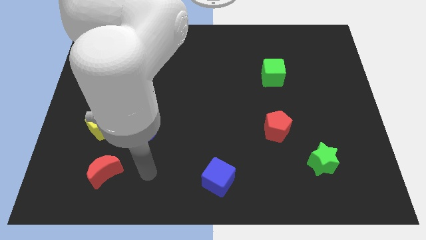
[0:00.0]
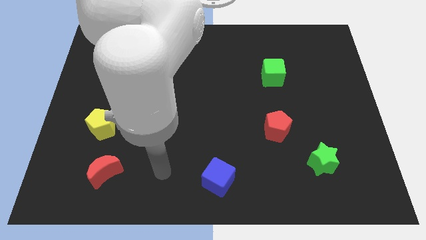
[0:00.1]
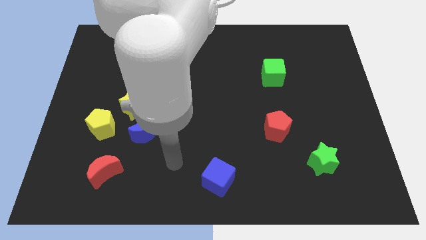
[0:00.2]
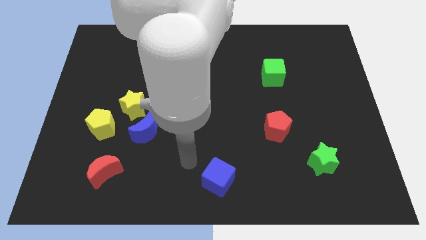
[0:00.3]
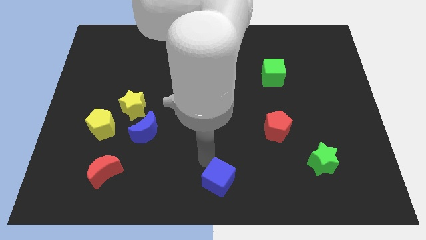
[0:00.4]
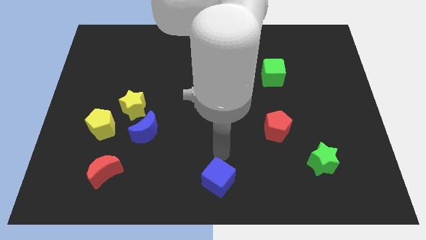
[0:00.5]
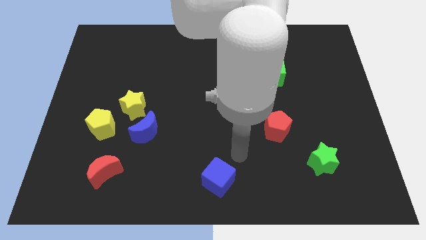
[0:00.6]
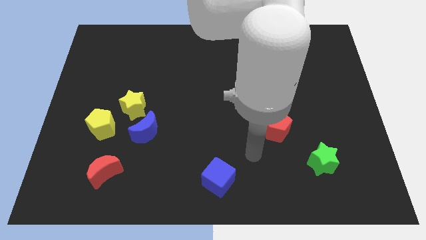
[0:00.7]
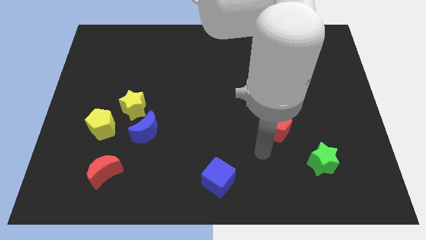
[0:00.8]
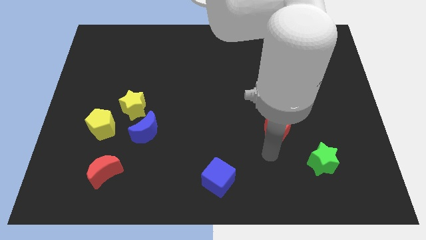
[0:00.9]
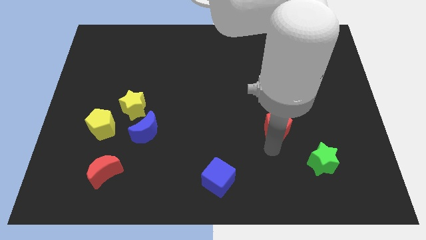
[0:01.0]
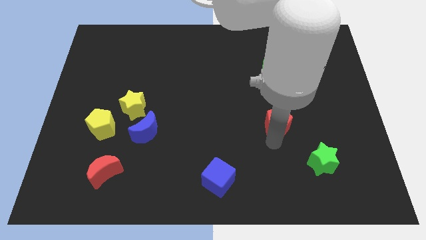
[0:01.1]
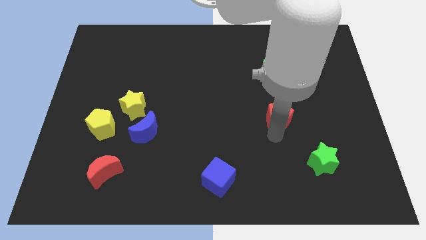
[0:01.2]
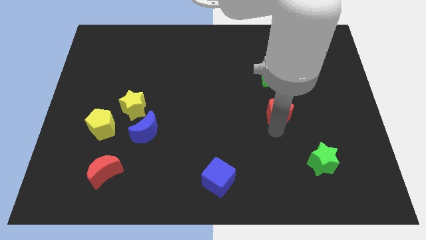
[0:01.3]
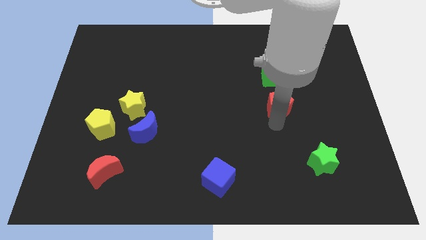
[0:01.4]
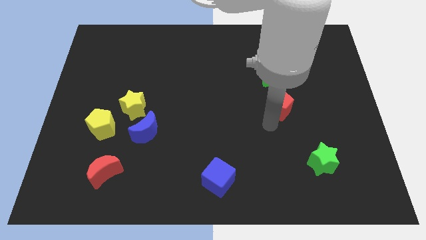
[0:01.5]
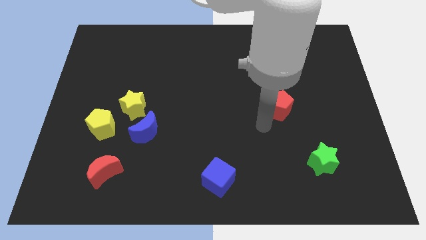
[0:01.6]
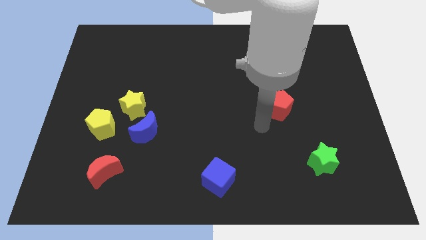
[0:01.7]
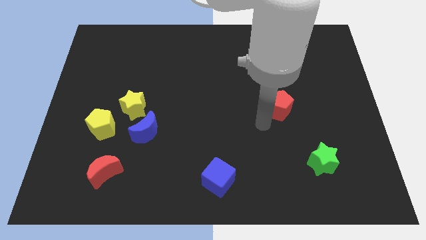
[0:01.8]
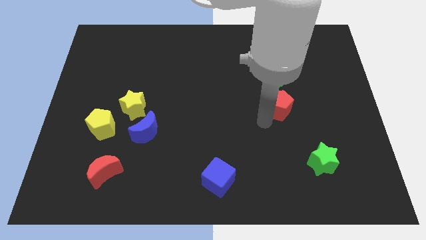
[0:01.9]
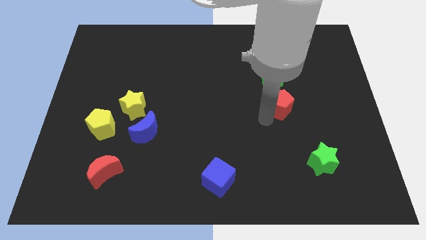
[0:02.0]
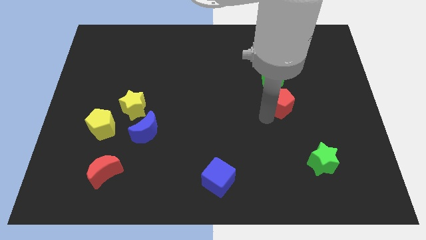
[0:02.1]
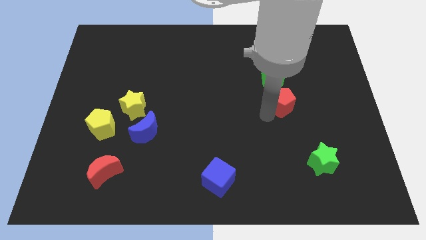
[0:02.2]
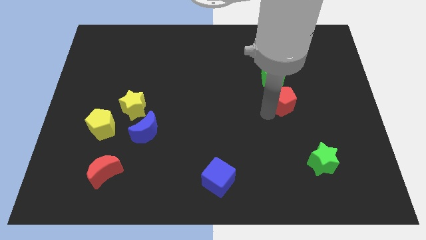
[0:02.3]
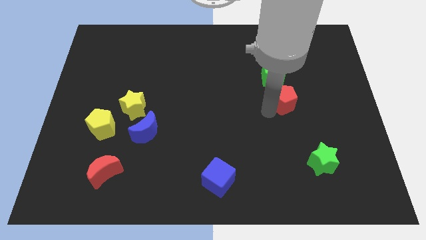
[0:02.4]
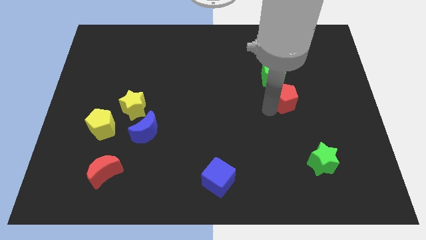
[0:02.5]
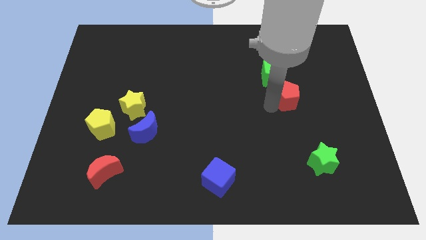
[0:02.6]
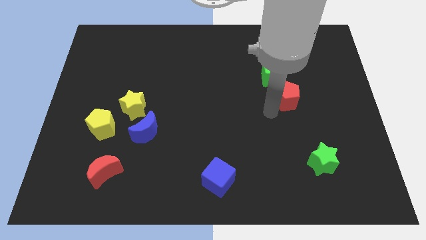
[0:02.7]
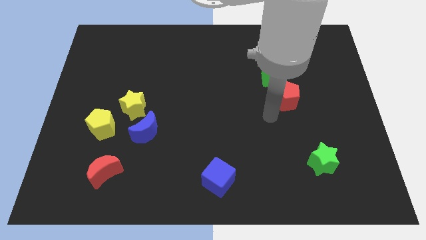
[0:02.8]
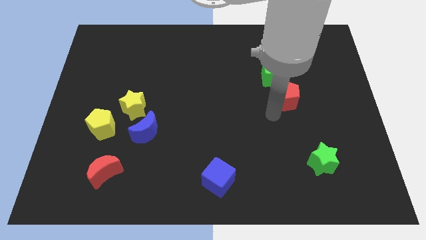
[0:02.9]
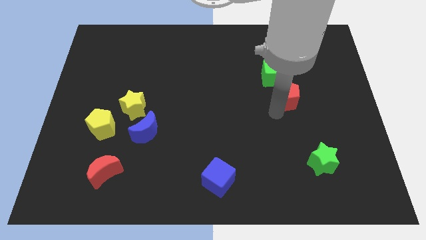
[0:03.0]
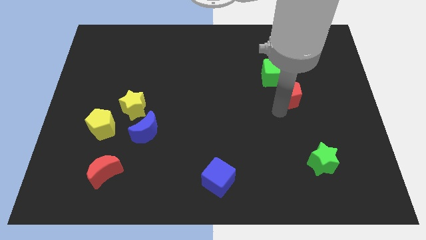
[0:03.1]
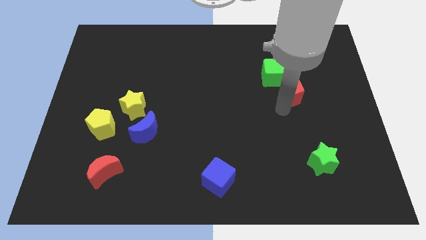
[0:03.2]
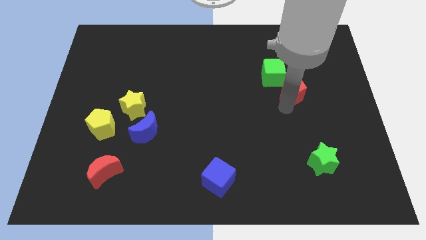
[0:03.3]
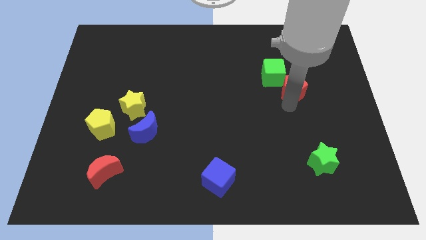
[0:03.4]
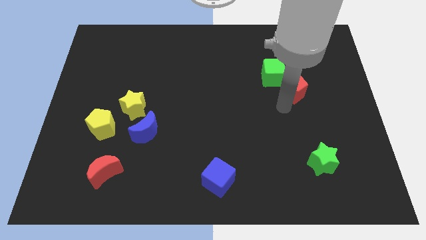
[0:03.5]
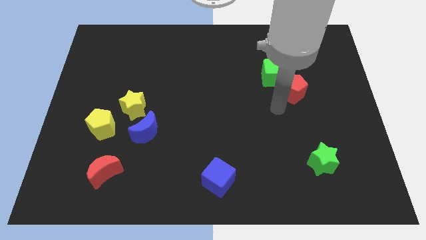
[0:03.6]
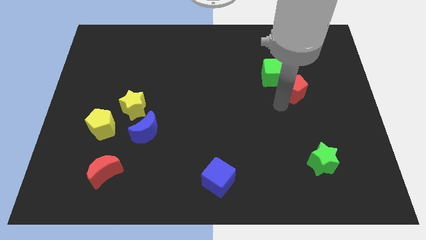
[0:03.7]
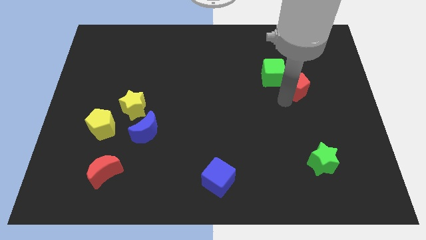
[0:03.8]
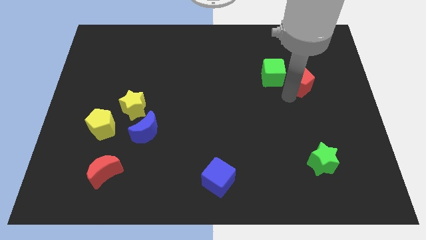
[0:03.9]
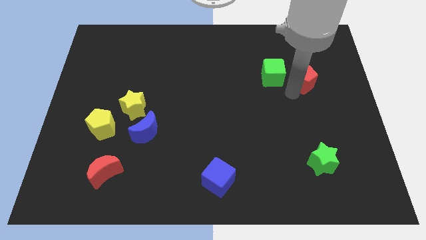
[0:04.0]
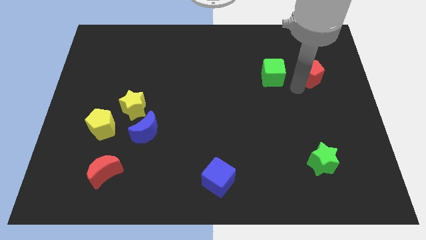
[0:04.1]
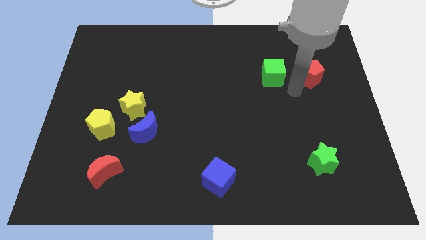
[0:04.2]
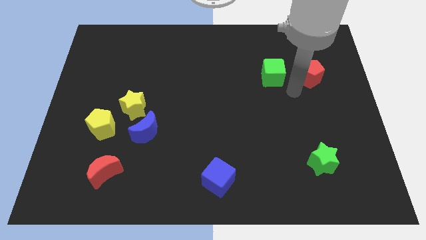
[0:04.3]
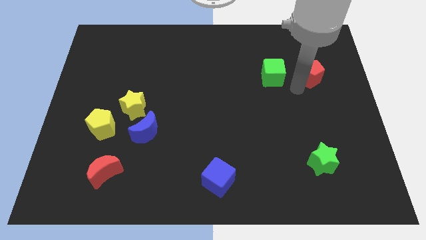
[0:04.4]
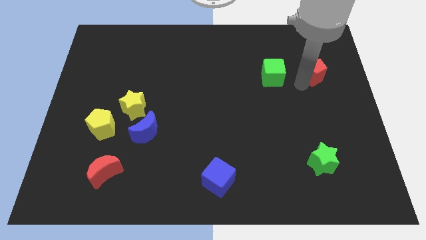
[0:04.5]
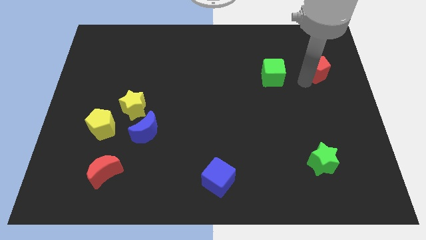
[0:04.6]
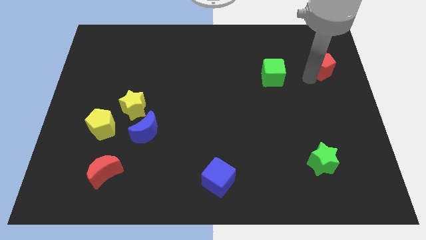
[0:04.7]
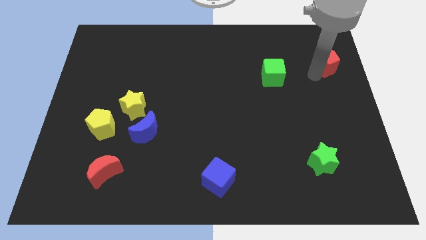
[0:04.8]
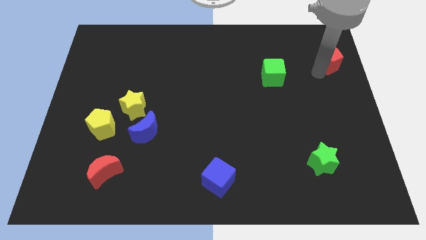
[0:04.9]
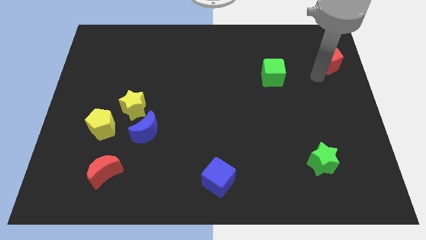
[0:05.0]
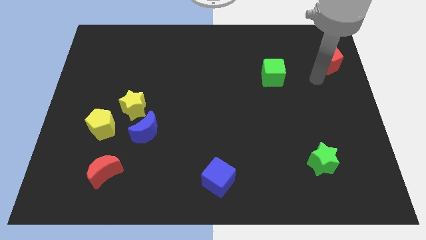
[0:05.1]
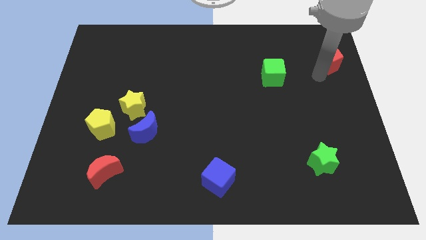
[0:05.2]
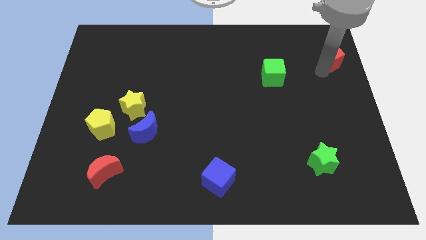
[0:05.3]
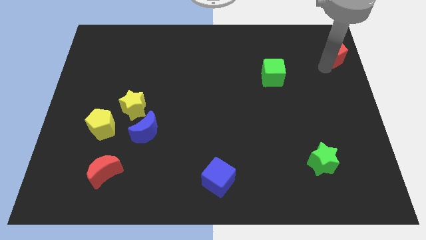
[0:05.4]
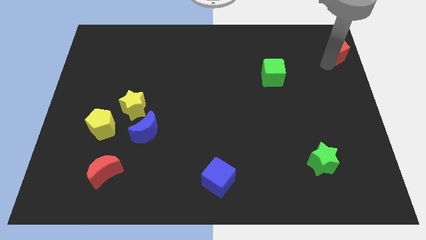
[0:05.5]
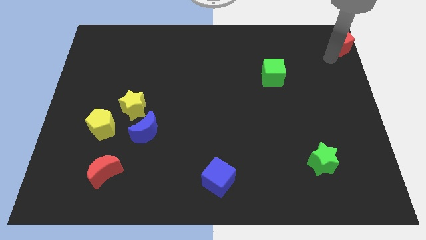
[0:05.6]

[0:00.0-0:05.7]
slide the red pentagon to the top right corner

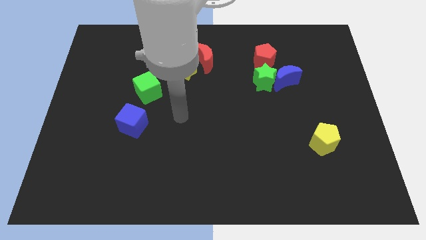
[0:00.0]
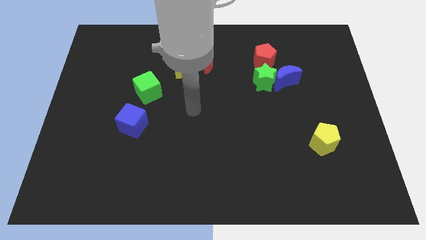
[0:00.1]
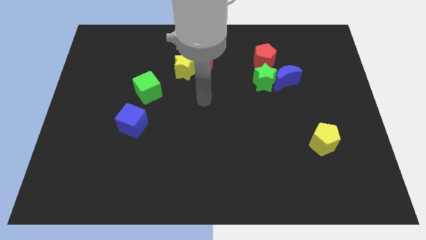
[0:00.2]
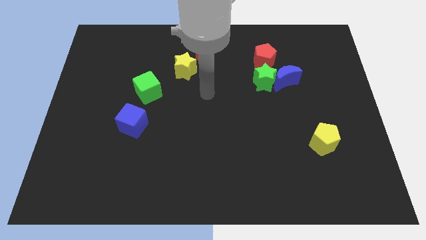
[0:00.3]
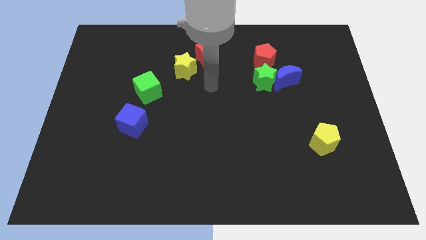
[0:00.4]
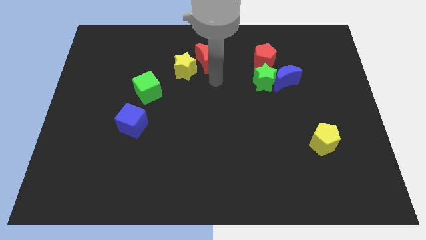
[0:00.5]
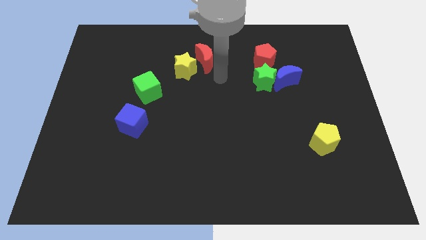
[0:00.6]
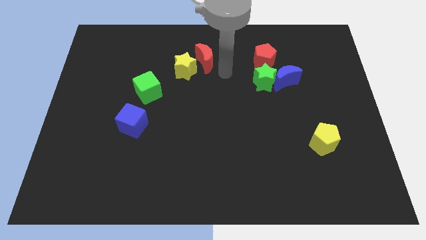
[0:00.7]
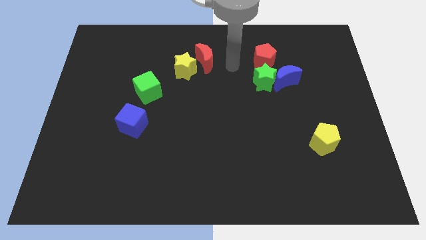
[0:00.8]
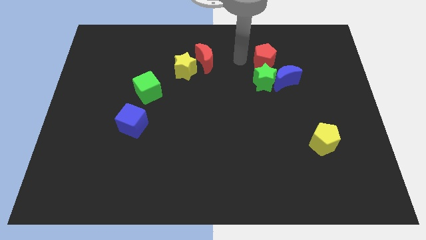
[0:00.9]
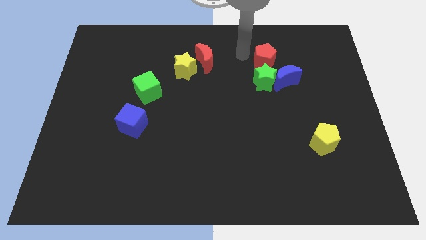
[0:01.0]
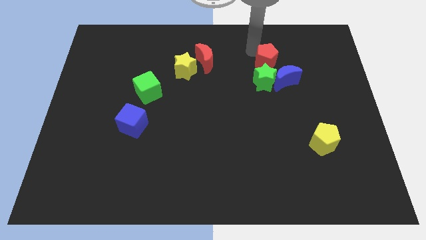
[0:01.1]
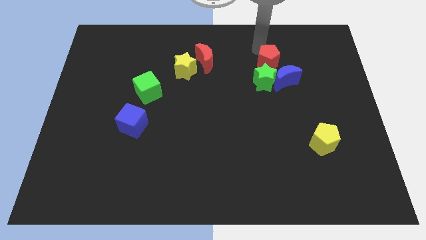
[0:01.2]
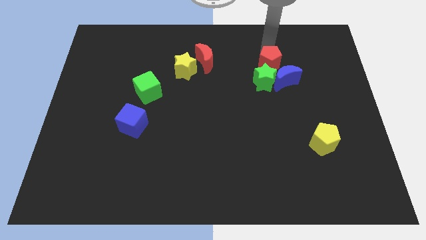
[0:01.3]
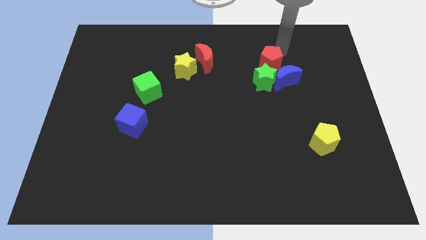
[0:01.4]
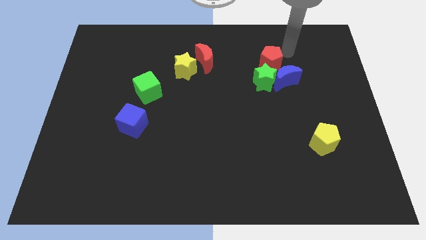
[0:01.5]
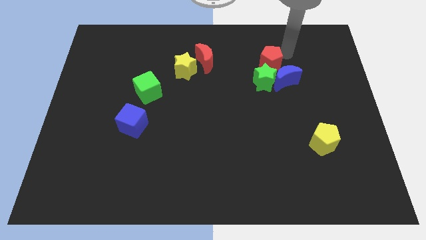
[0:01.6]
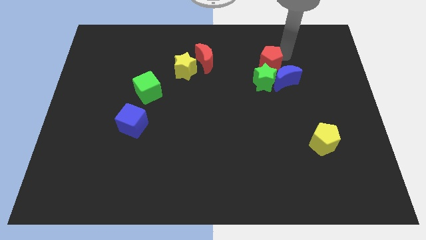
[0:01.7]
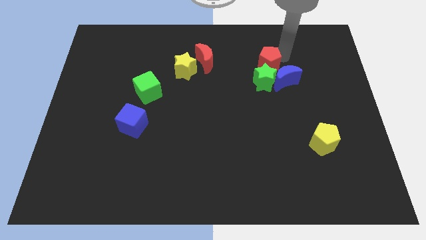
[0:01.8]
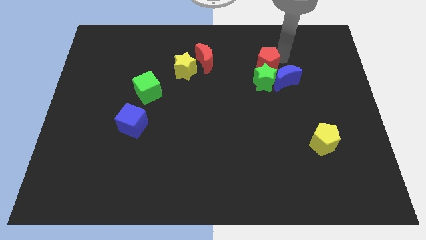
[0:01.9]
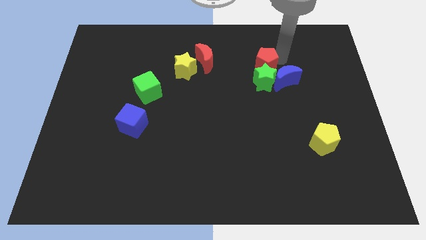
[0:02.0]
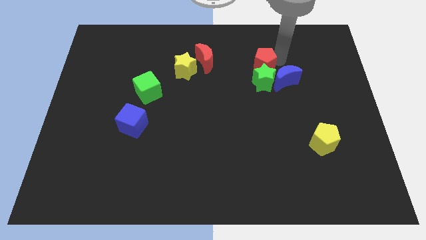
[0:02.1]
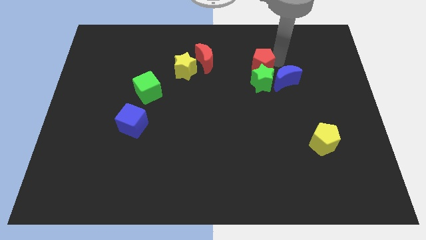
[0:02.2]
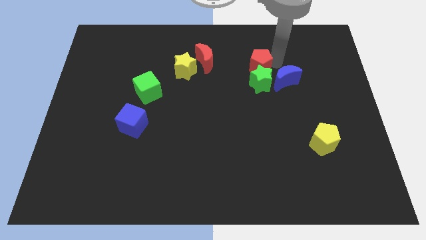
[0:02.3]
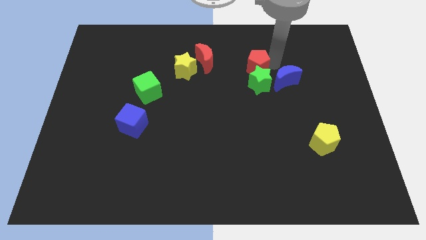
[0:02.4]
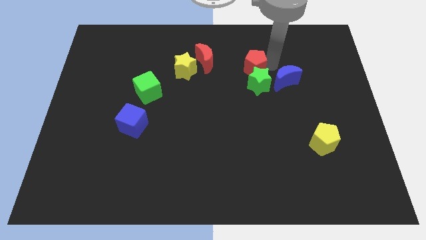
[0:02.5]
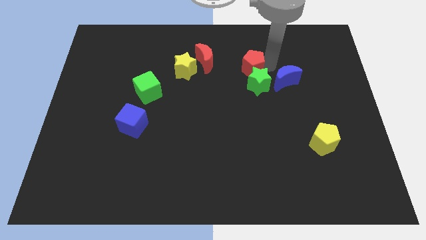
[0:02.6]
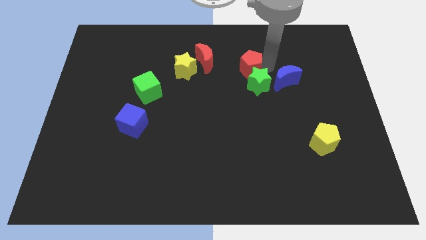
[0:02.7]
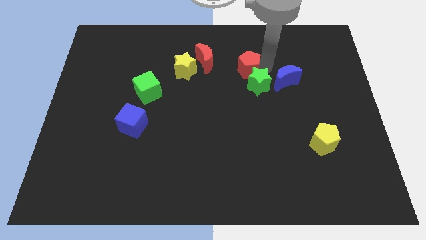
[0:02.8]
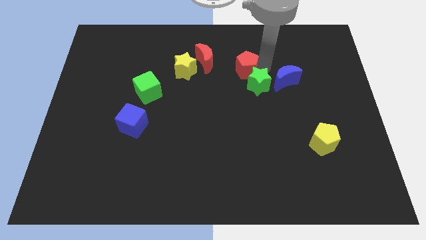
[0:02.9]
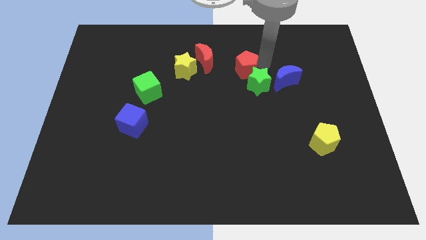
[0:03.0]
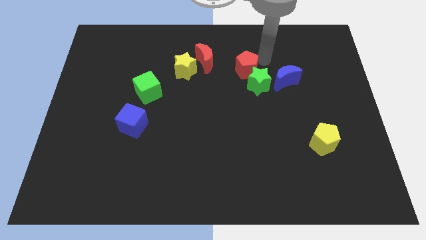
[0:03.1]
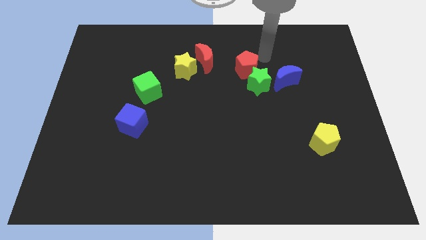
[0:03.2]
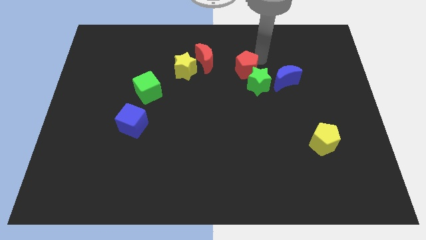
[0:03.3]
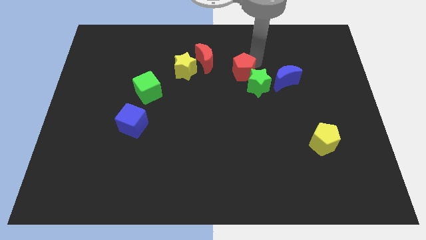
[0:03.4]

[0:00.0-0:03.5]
put the red pentagon to the middle of the board
